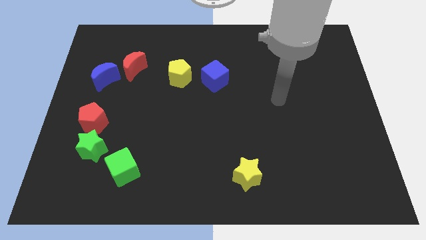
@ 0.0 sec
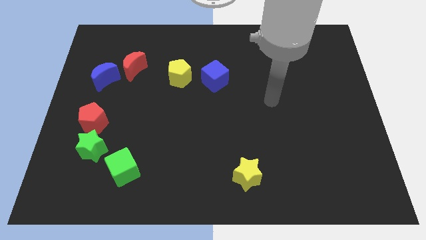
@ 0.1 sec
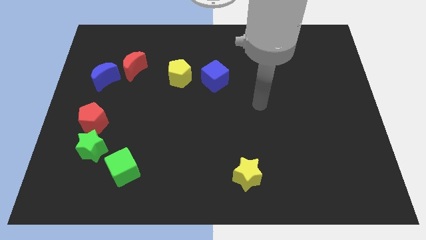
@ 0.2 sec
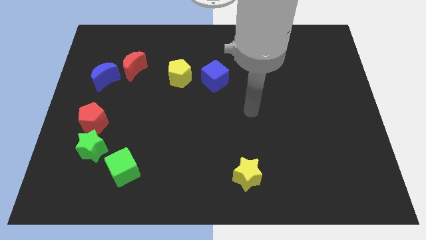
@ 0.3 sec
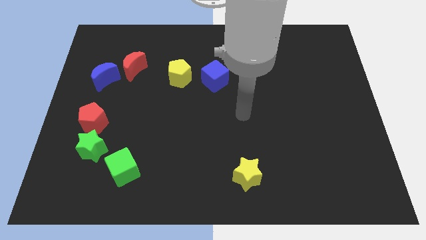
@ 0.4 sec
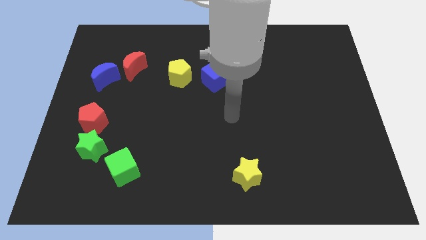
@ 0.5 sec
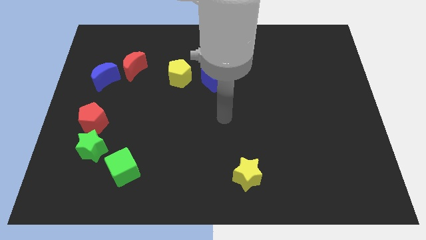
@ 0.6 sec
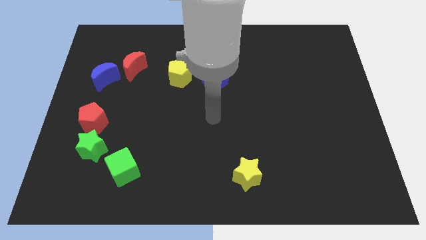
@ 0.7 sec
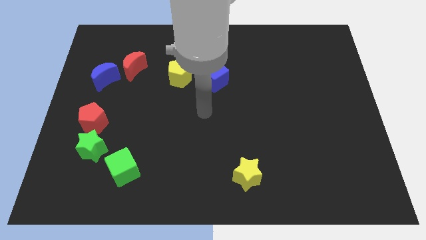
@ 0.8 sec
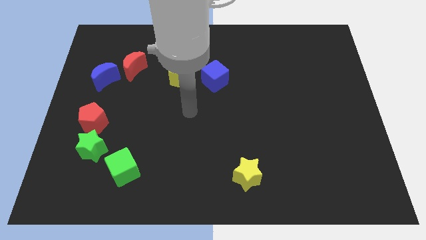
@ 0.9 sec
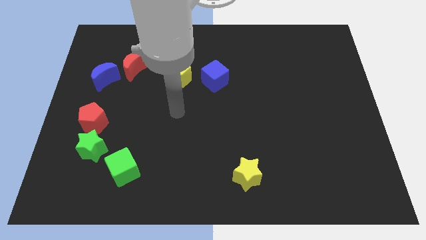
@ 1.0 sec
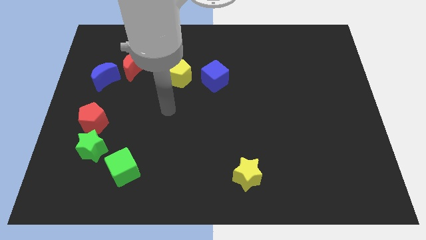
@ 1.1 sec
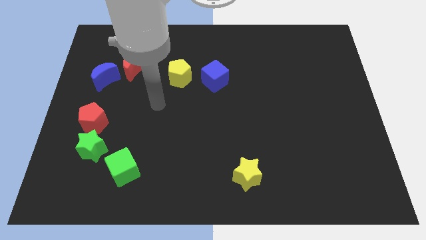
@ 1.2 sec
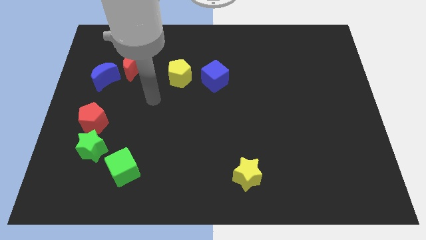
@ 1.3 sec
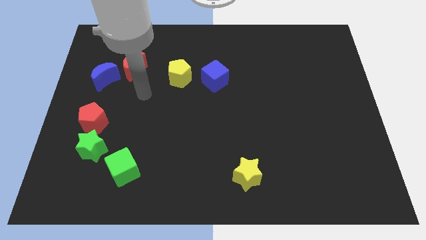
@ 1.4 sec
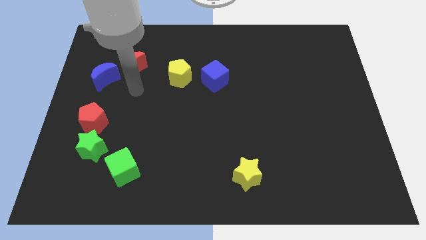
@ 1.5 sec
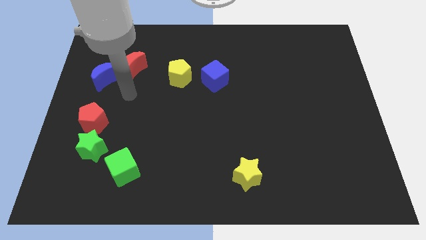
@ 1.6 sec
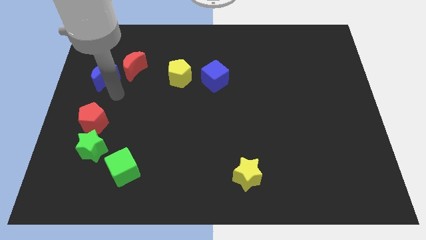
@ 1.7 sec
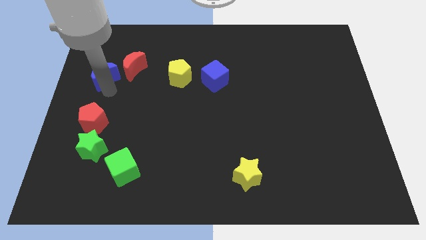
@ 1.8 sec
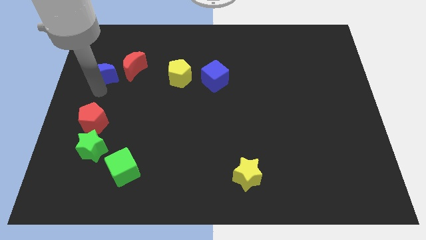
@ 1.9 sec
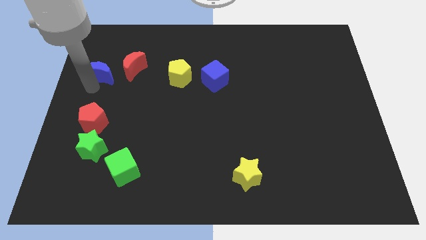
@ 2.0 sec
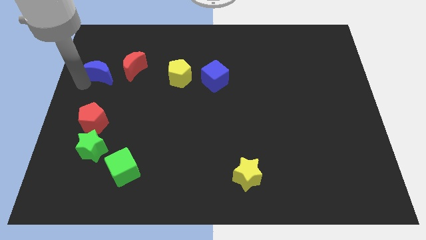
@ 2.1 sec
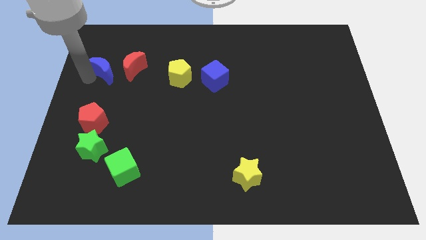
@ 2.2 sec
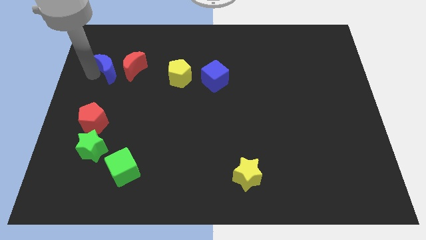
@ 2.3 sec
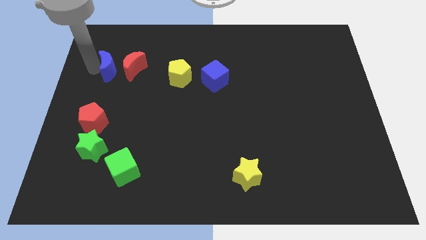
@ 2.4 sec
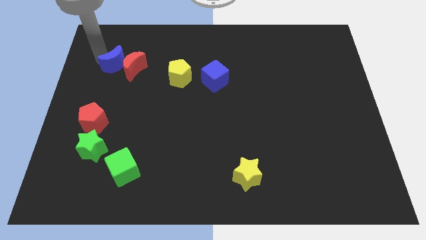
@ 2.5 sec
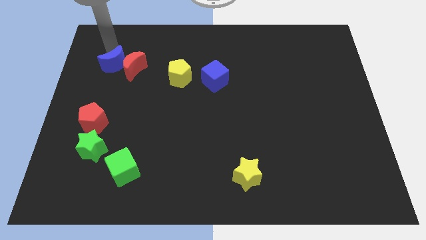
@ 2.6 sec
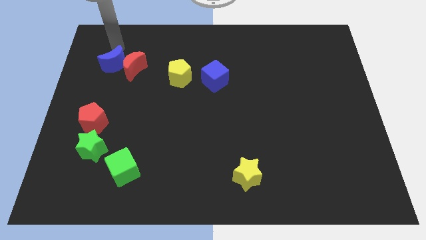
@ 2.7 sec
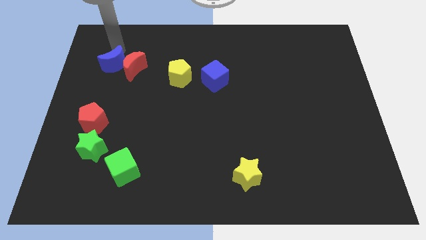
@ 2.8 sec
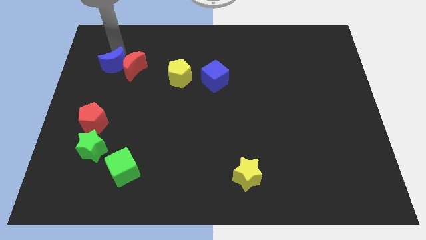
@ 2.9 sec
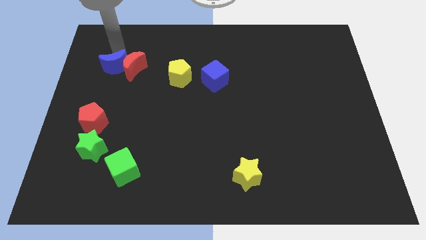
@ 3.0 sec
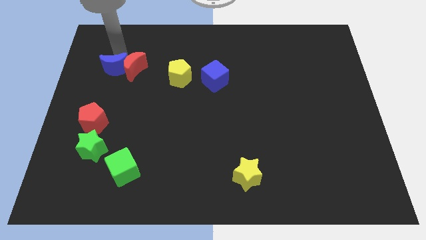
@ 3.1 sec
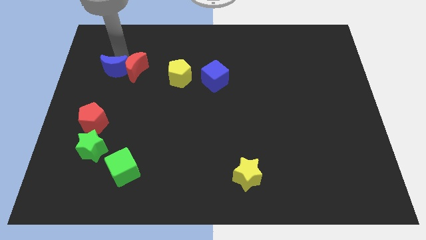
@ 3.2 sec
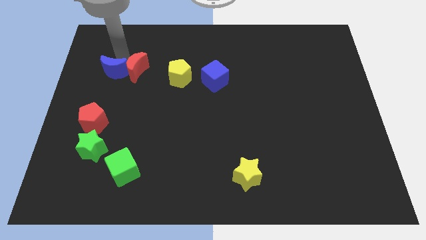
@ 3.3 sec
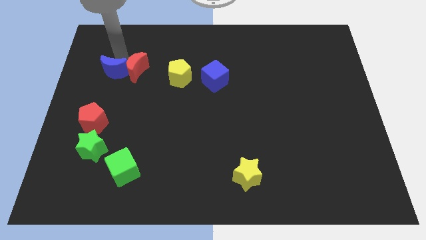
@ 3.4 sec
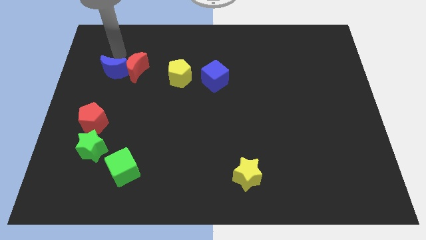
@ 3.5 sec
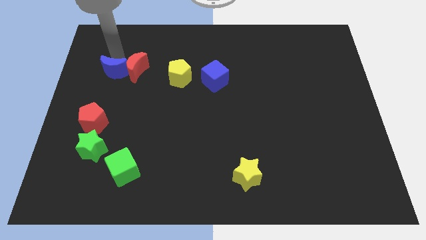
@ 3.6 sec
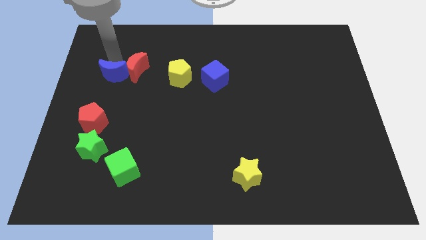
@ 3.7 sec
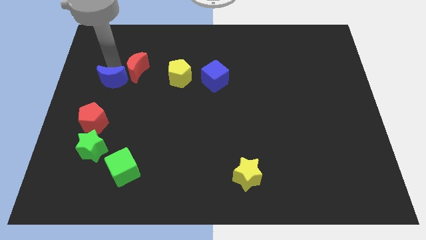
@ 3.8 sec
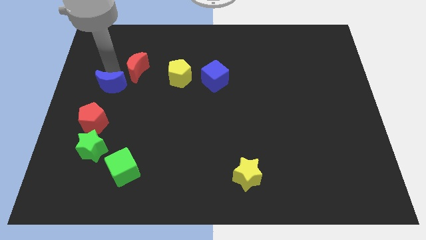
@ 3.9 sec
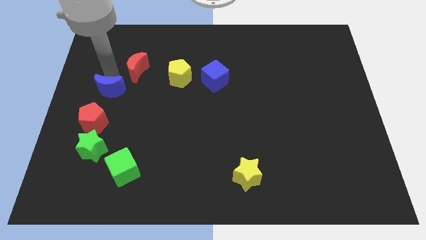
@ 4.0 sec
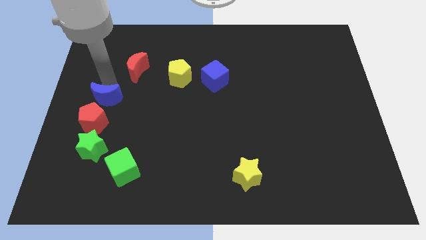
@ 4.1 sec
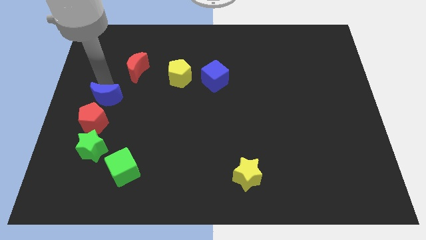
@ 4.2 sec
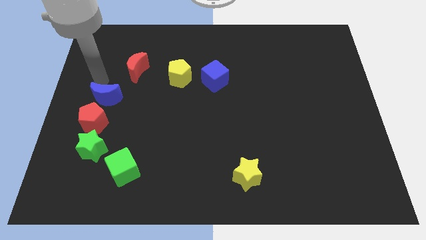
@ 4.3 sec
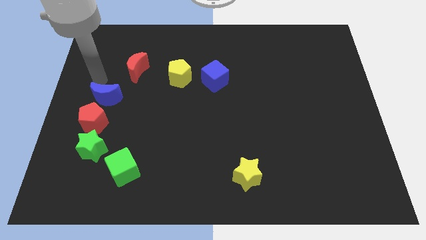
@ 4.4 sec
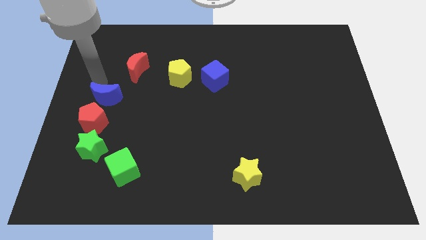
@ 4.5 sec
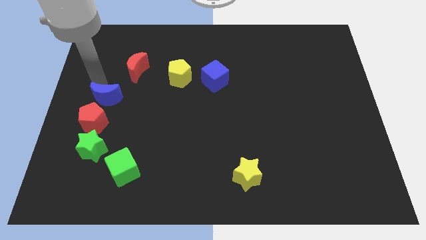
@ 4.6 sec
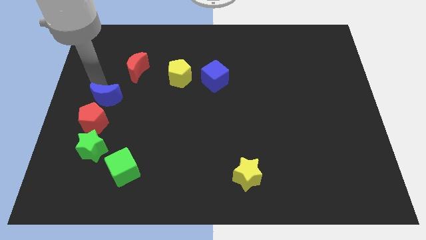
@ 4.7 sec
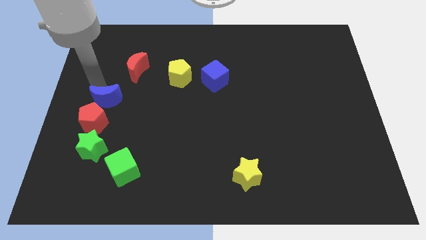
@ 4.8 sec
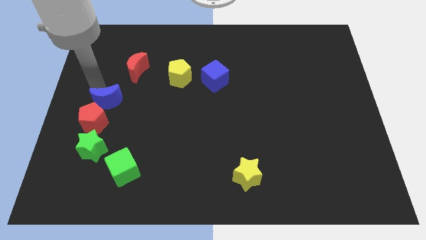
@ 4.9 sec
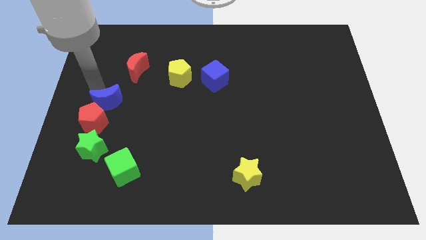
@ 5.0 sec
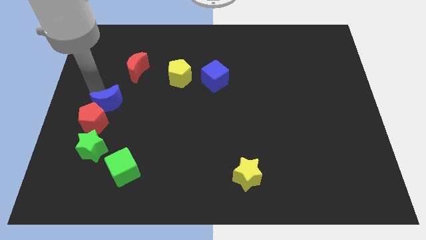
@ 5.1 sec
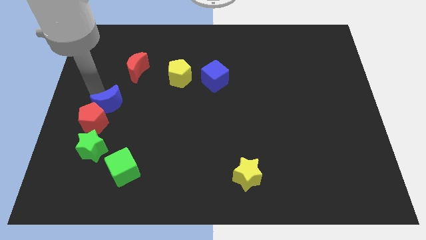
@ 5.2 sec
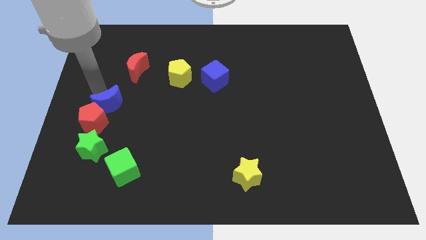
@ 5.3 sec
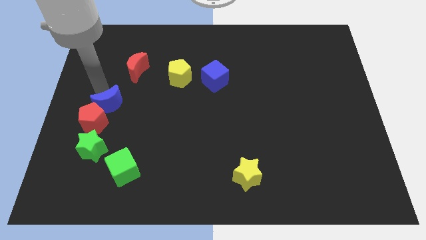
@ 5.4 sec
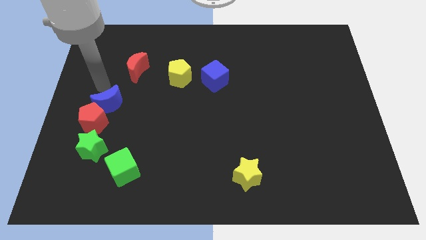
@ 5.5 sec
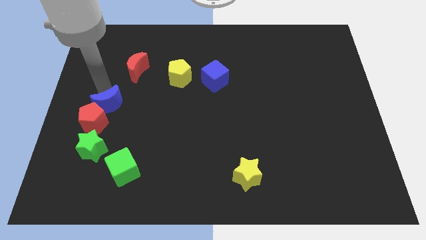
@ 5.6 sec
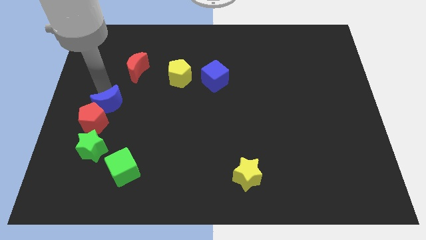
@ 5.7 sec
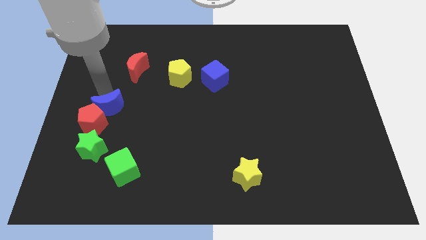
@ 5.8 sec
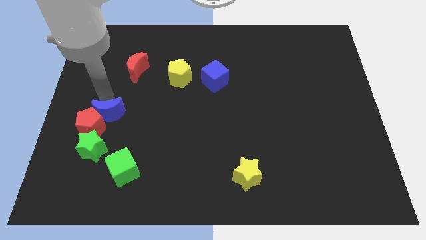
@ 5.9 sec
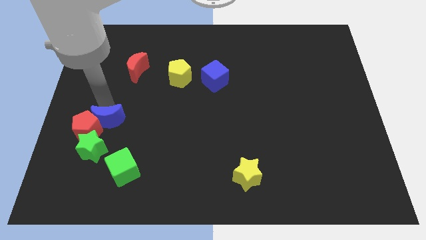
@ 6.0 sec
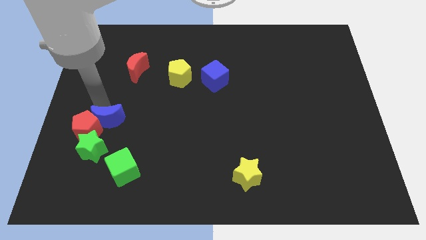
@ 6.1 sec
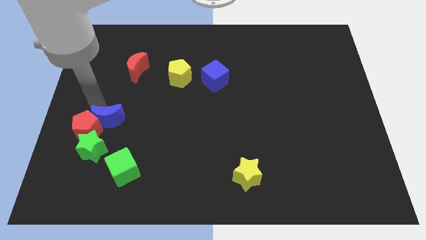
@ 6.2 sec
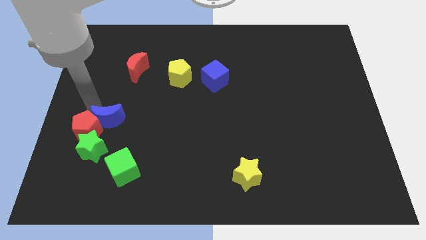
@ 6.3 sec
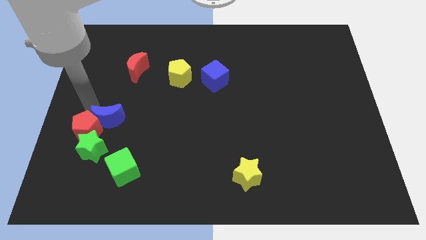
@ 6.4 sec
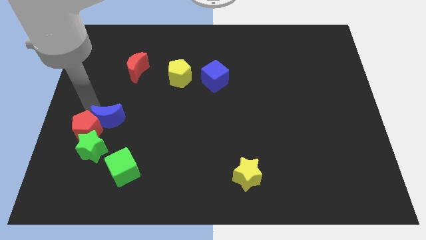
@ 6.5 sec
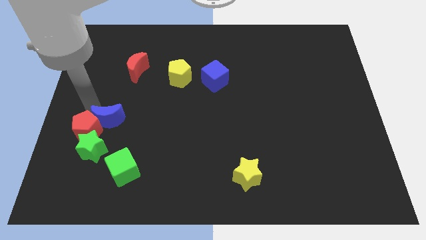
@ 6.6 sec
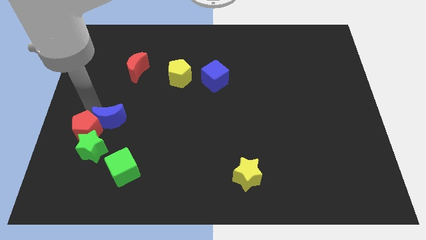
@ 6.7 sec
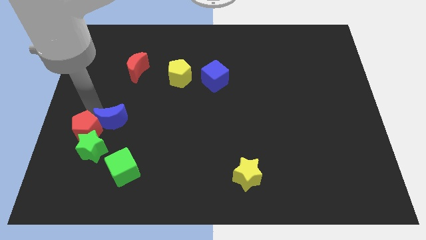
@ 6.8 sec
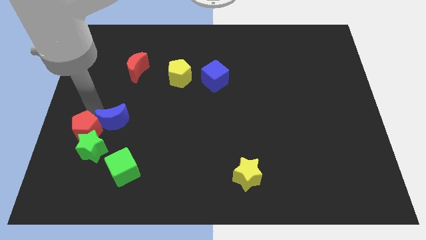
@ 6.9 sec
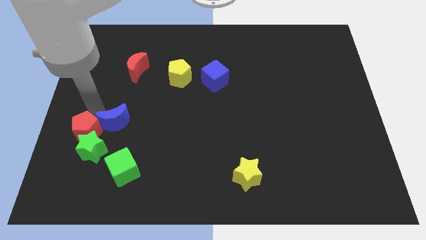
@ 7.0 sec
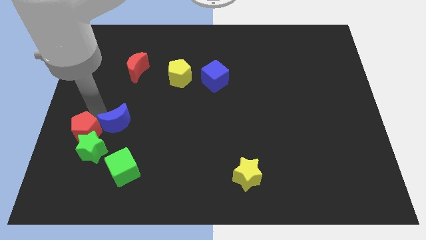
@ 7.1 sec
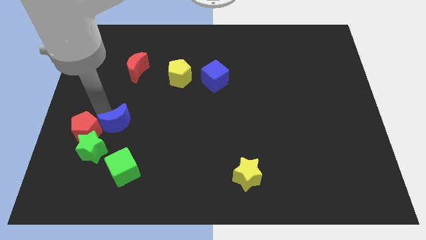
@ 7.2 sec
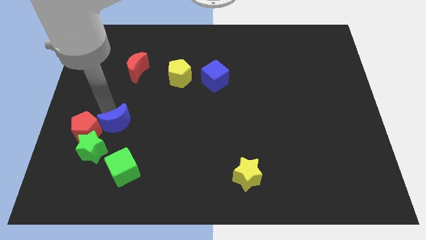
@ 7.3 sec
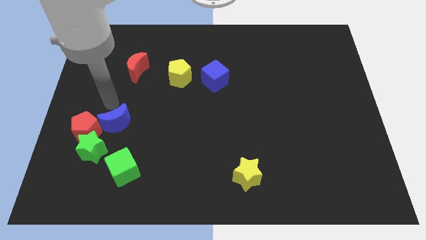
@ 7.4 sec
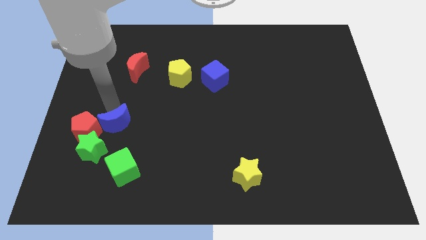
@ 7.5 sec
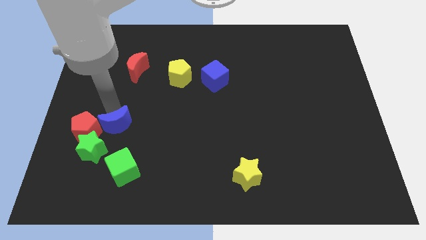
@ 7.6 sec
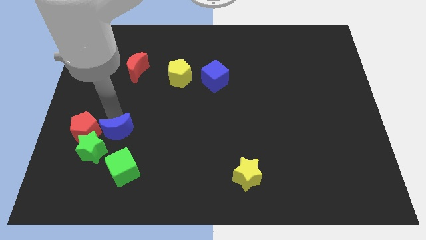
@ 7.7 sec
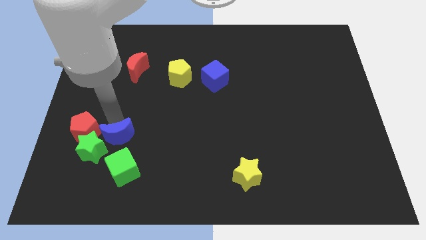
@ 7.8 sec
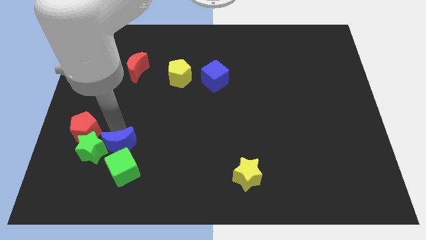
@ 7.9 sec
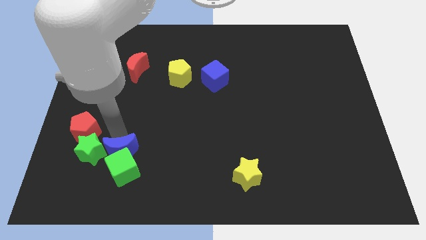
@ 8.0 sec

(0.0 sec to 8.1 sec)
push the blue moon next to the green cube
